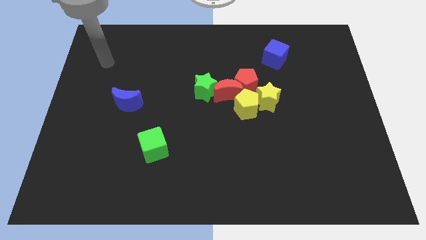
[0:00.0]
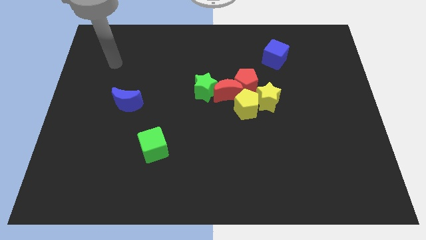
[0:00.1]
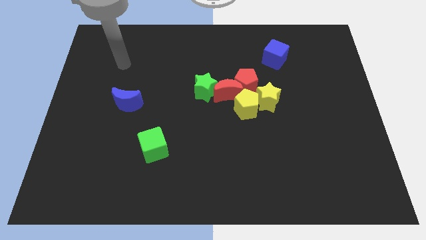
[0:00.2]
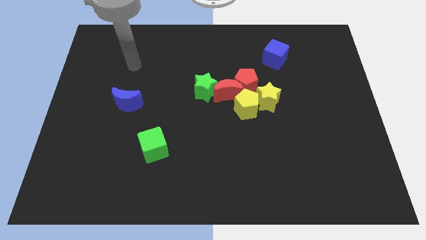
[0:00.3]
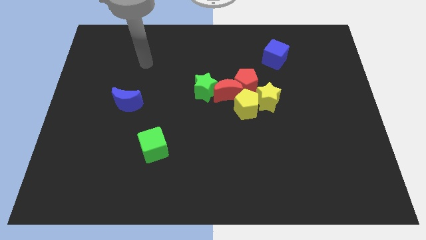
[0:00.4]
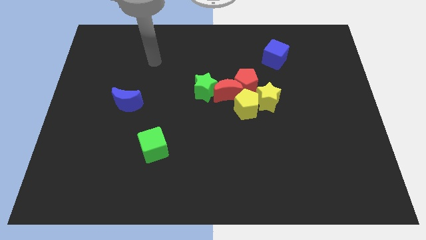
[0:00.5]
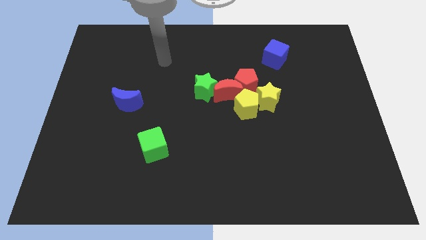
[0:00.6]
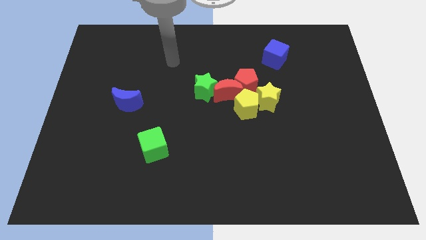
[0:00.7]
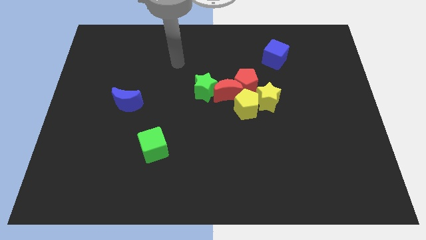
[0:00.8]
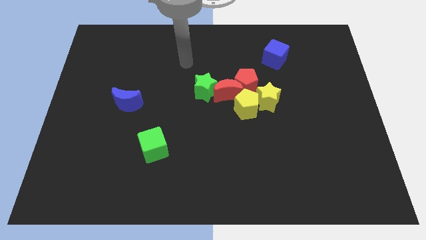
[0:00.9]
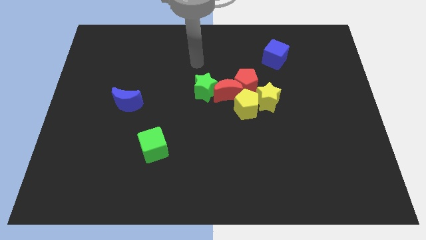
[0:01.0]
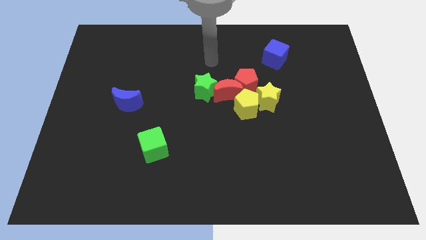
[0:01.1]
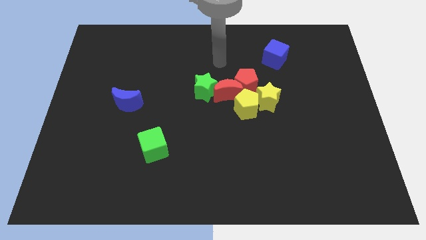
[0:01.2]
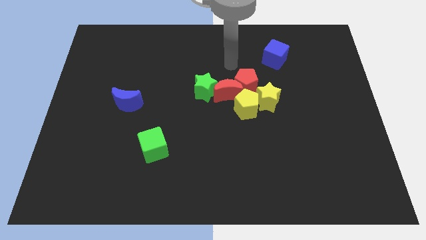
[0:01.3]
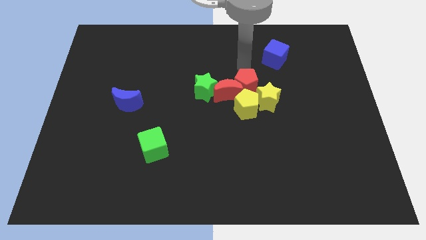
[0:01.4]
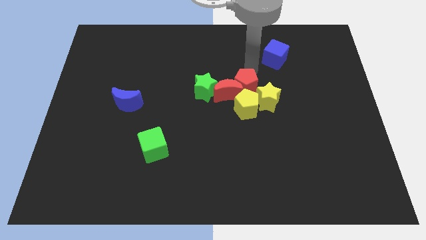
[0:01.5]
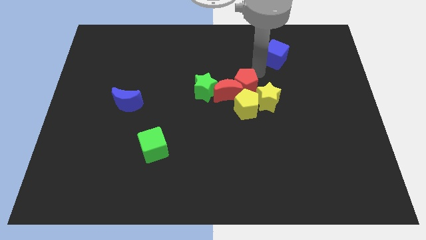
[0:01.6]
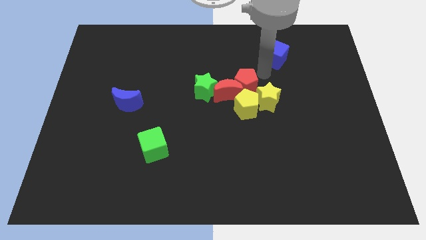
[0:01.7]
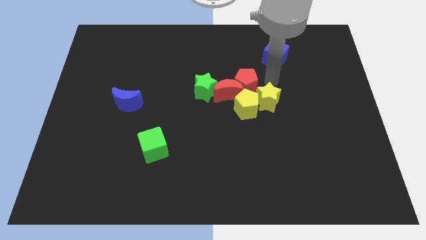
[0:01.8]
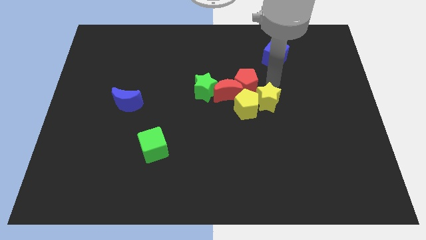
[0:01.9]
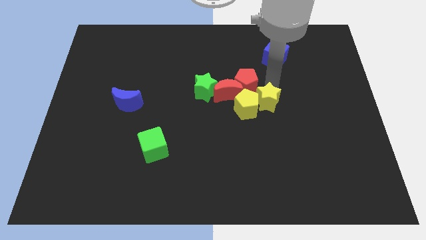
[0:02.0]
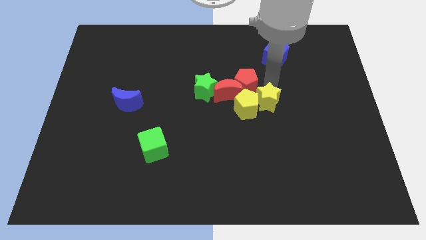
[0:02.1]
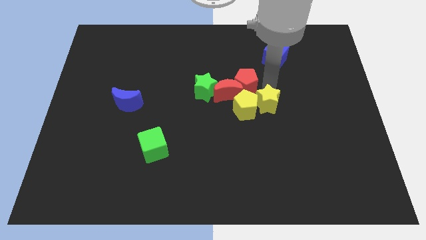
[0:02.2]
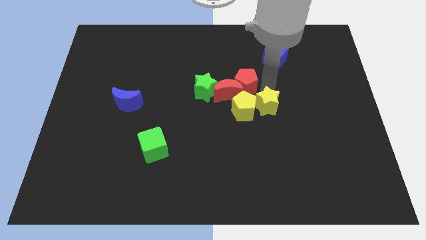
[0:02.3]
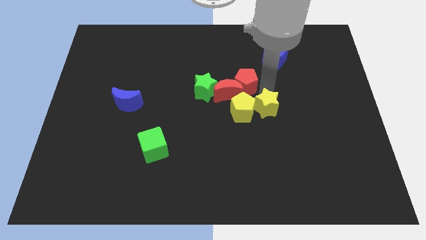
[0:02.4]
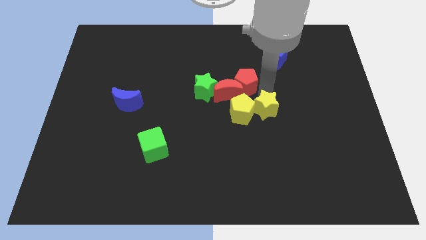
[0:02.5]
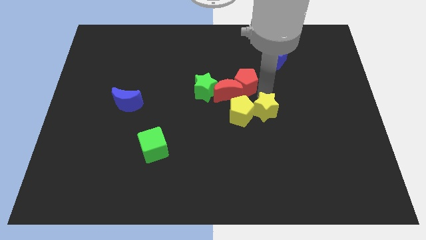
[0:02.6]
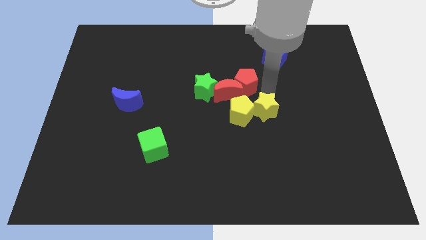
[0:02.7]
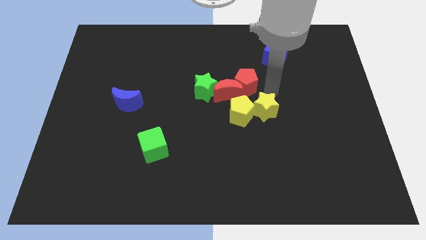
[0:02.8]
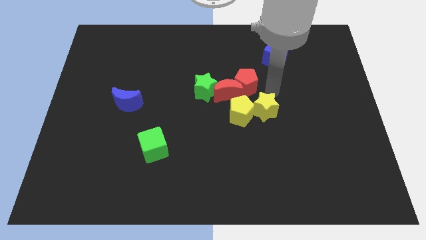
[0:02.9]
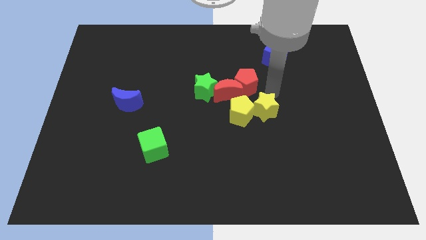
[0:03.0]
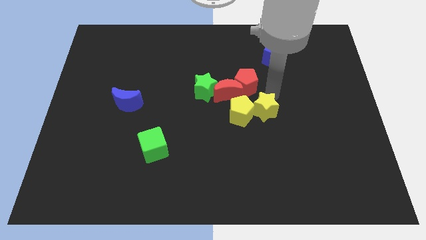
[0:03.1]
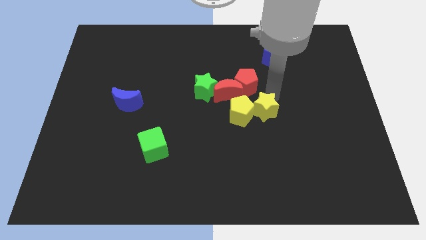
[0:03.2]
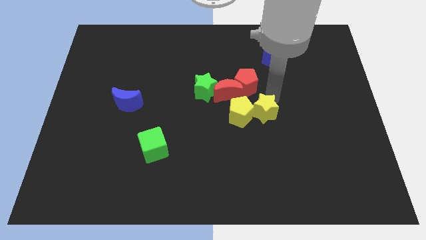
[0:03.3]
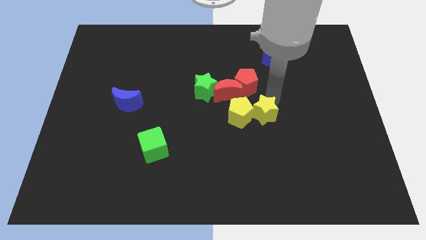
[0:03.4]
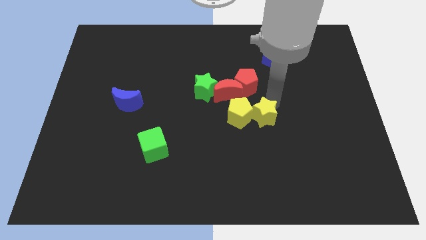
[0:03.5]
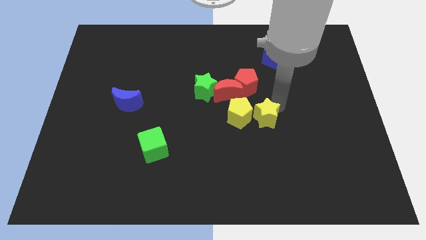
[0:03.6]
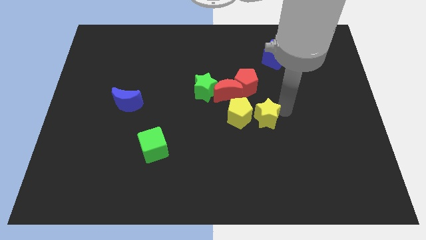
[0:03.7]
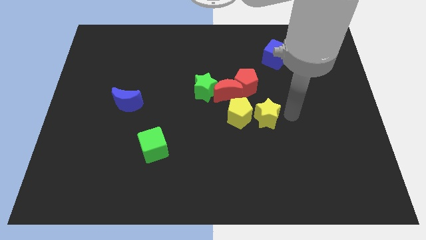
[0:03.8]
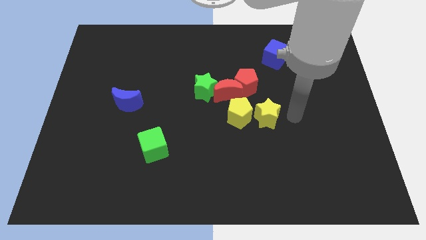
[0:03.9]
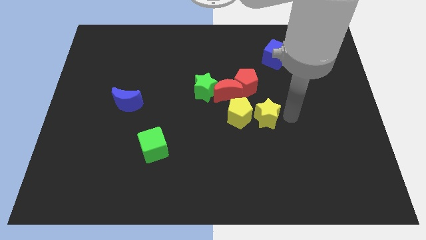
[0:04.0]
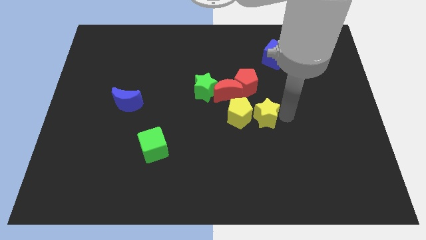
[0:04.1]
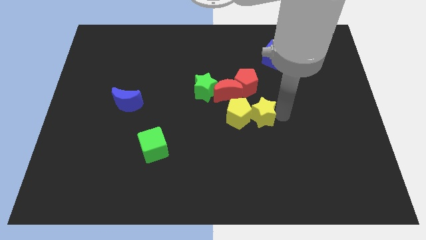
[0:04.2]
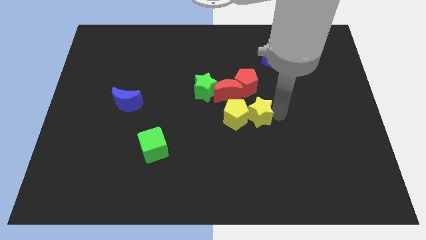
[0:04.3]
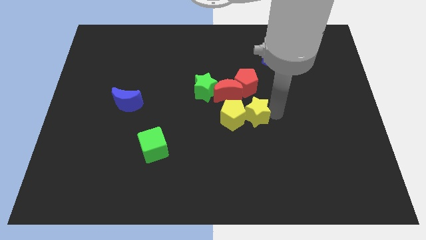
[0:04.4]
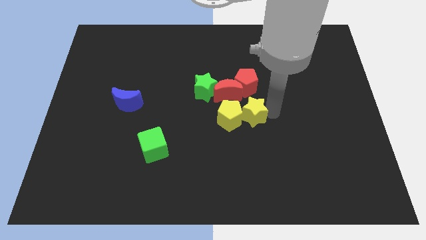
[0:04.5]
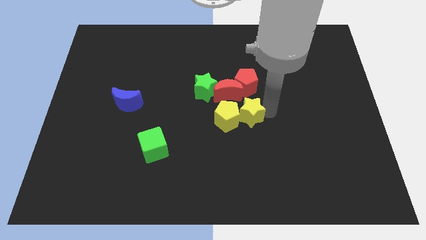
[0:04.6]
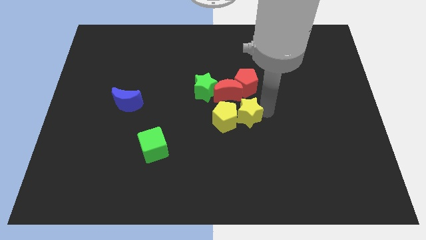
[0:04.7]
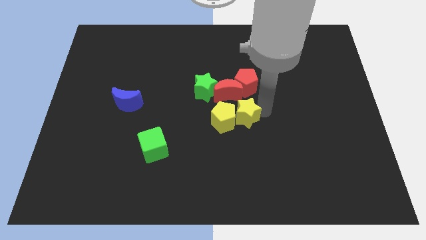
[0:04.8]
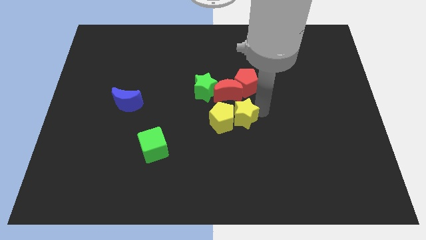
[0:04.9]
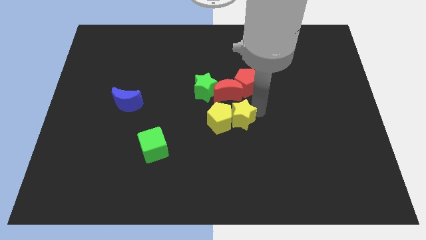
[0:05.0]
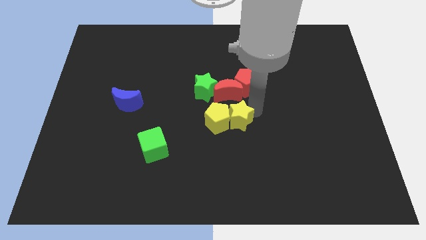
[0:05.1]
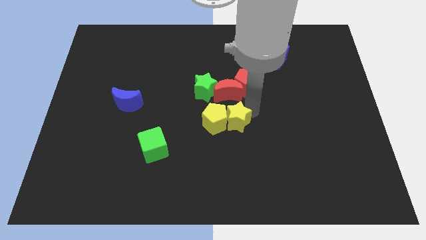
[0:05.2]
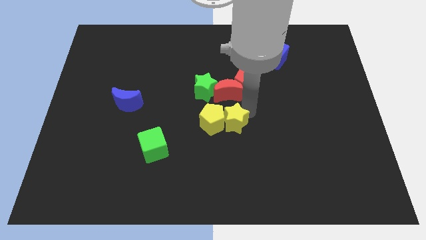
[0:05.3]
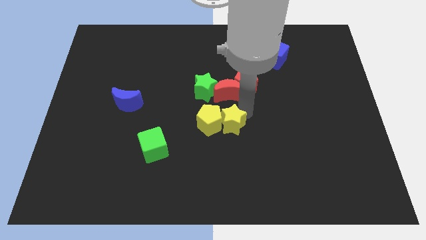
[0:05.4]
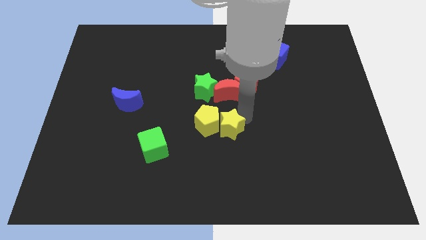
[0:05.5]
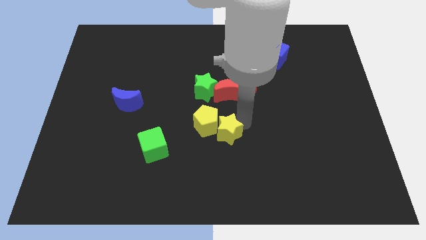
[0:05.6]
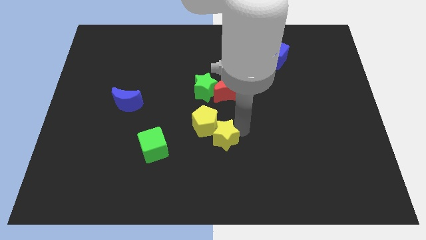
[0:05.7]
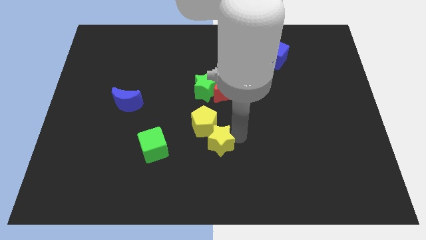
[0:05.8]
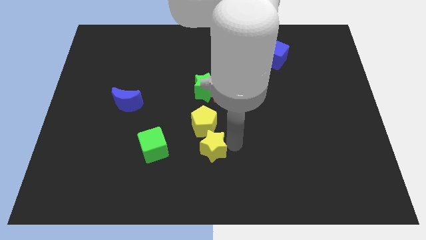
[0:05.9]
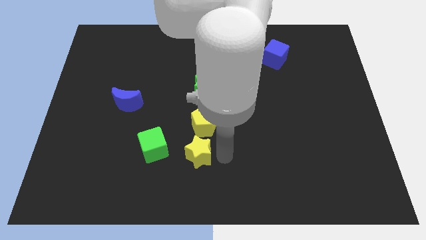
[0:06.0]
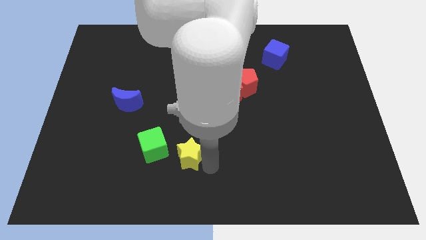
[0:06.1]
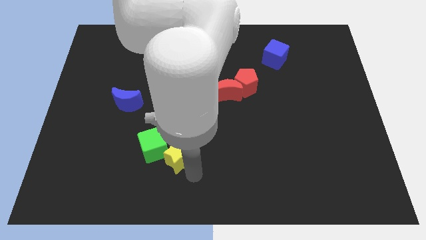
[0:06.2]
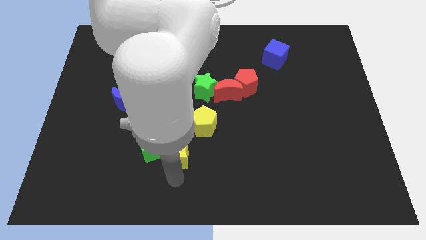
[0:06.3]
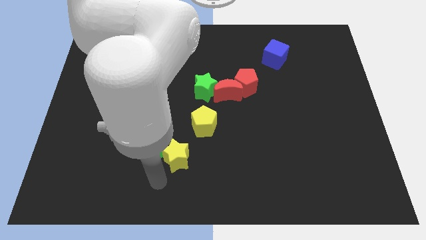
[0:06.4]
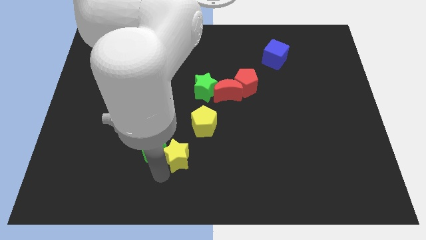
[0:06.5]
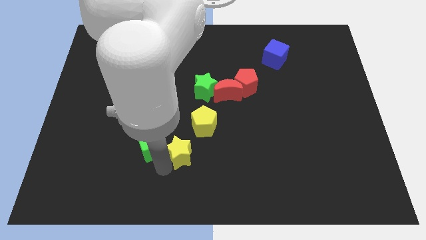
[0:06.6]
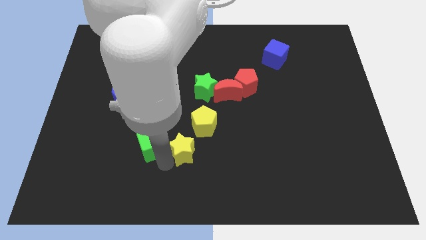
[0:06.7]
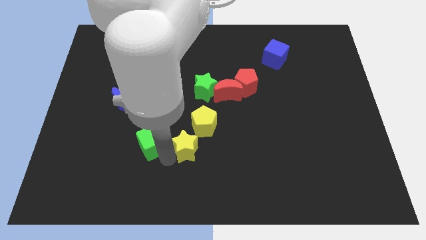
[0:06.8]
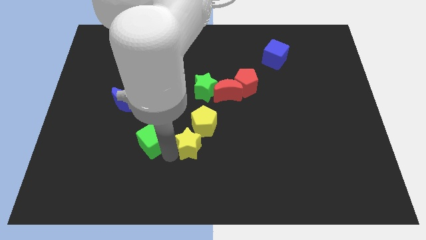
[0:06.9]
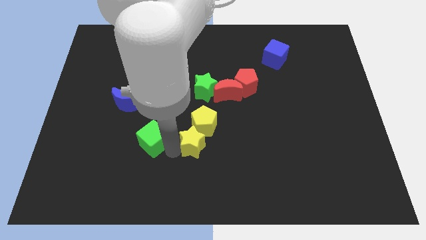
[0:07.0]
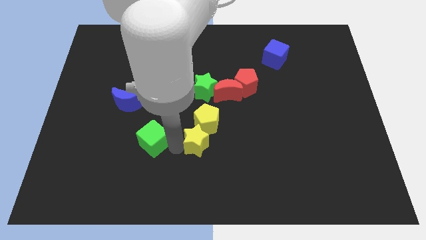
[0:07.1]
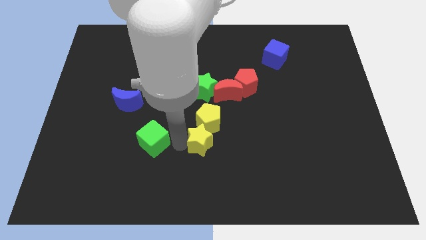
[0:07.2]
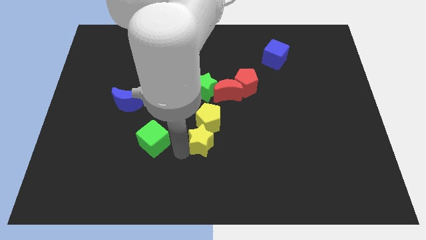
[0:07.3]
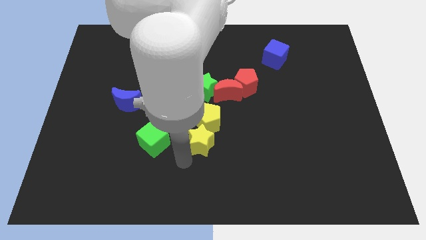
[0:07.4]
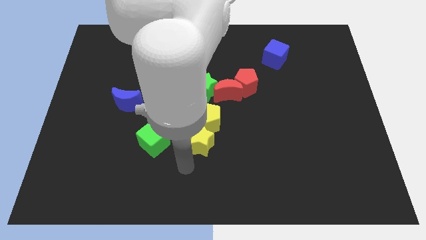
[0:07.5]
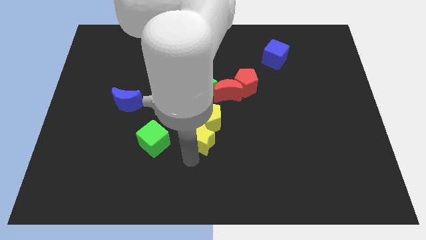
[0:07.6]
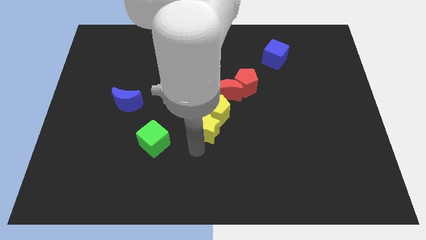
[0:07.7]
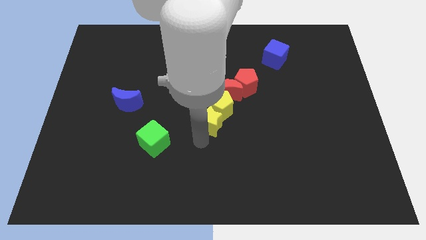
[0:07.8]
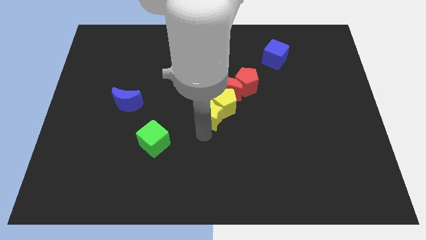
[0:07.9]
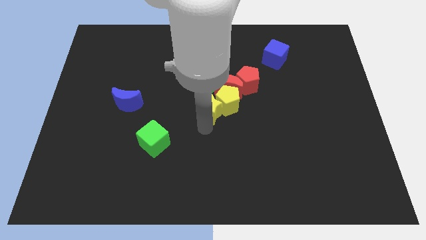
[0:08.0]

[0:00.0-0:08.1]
move the yellow star to the bottom left of the red pentagon
